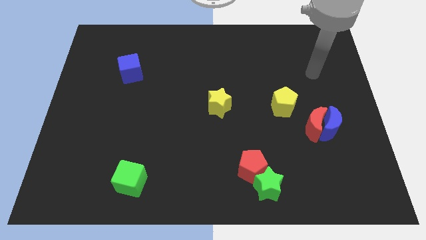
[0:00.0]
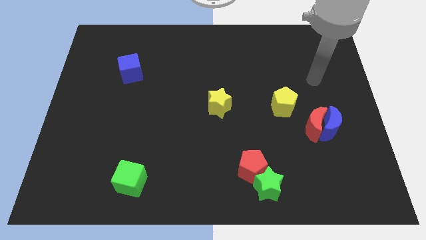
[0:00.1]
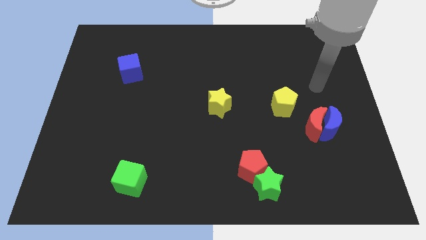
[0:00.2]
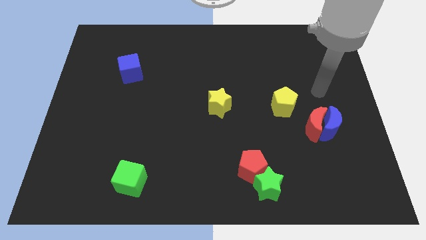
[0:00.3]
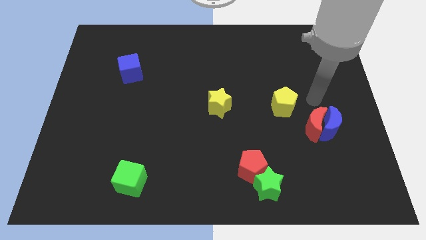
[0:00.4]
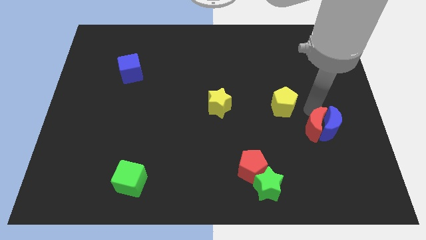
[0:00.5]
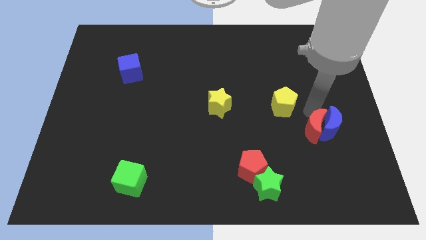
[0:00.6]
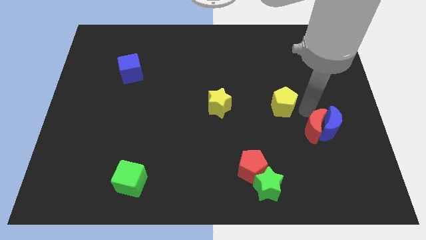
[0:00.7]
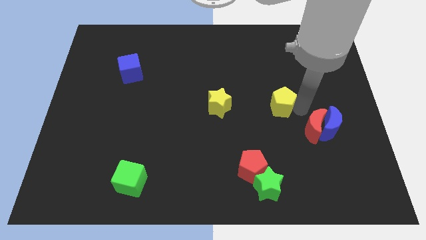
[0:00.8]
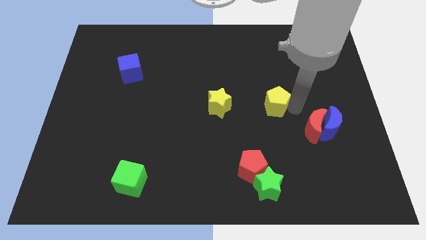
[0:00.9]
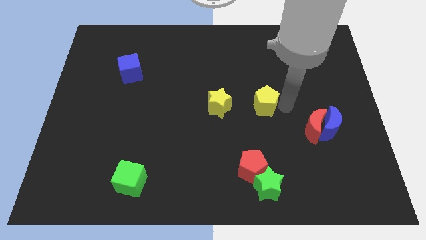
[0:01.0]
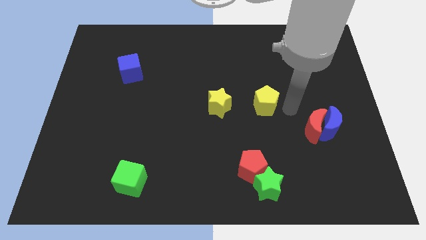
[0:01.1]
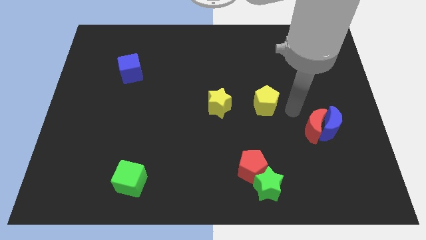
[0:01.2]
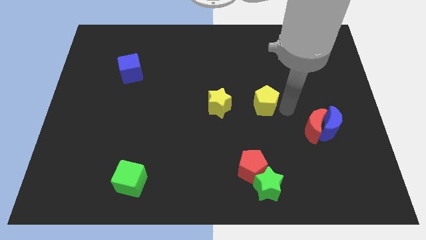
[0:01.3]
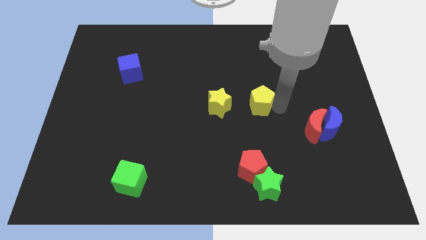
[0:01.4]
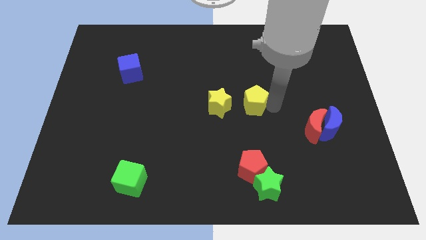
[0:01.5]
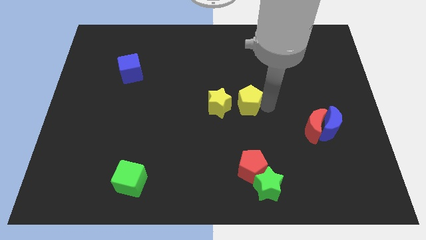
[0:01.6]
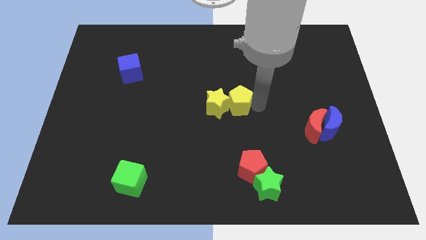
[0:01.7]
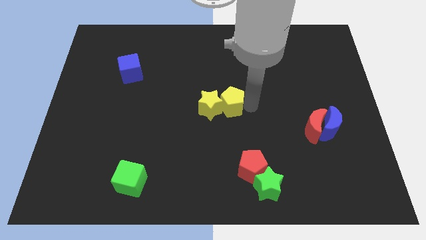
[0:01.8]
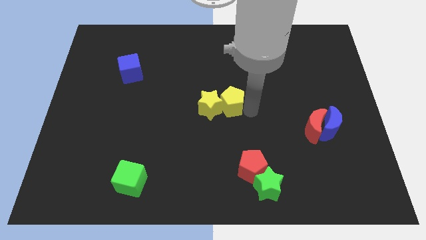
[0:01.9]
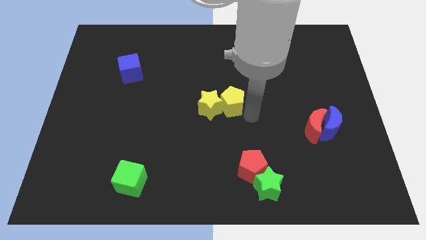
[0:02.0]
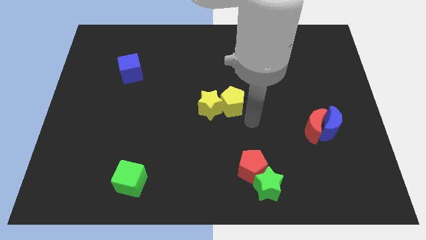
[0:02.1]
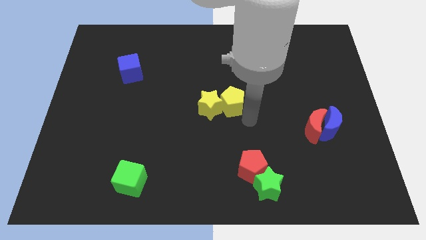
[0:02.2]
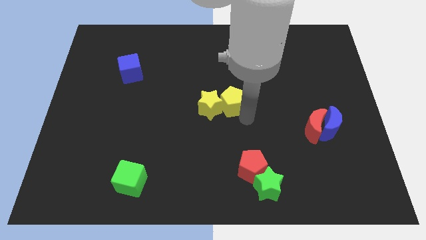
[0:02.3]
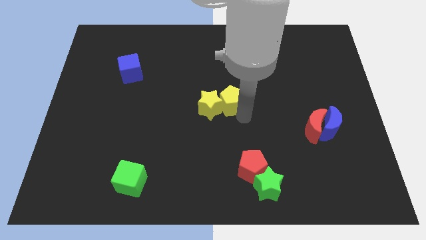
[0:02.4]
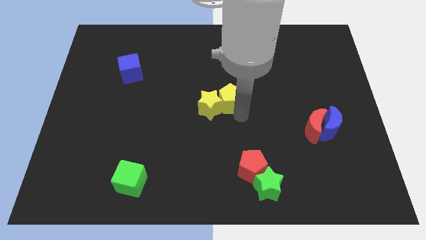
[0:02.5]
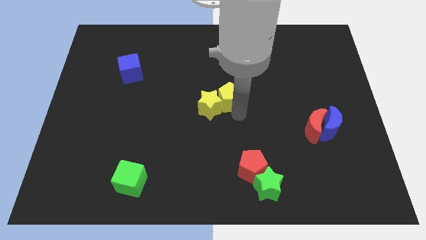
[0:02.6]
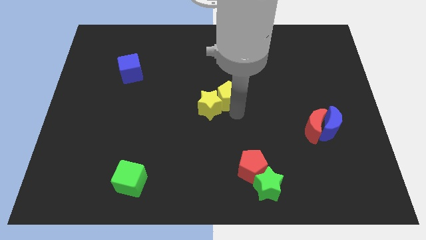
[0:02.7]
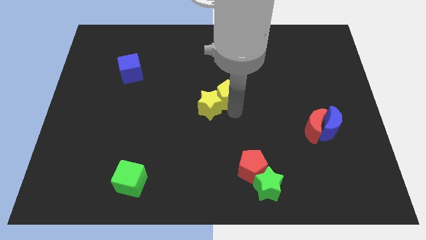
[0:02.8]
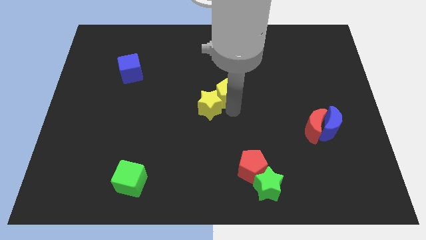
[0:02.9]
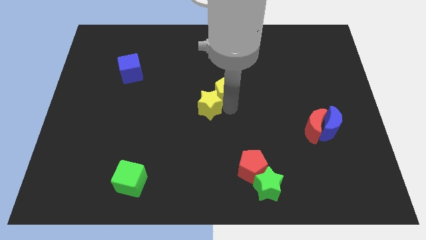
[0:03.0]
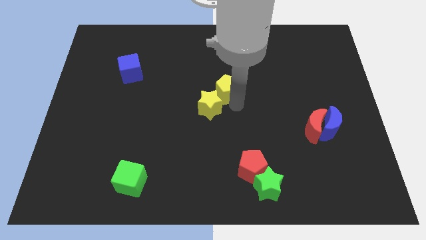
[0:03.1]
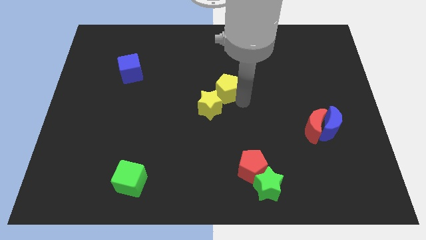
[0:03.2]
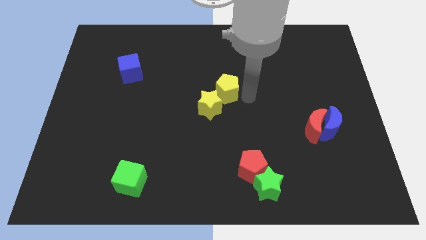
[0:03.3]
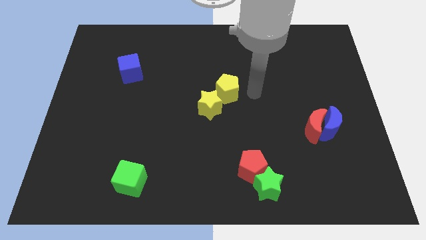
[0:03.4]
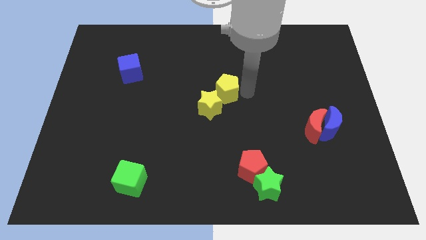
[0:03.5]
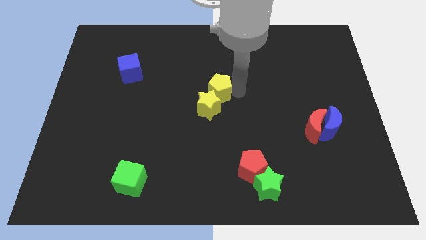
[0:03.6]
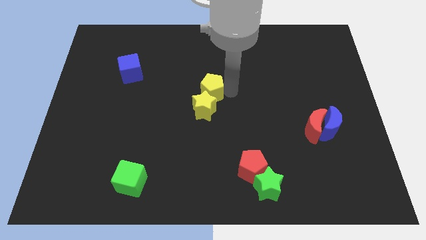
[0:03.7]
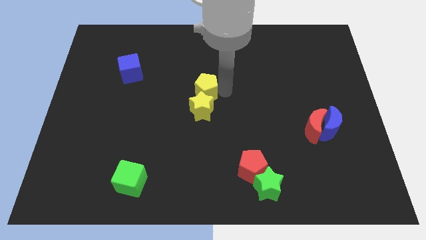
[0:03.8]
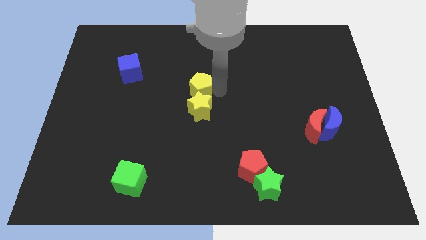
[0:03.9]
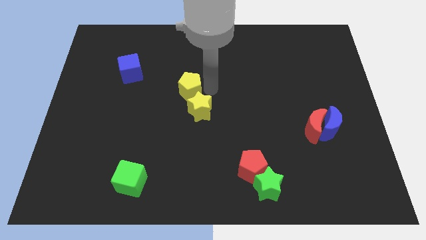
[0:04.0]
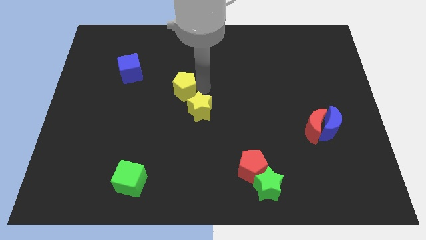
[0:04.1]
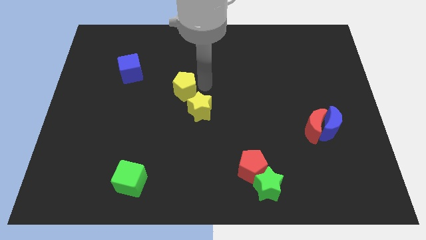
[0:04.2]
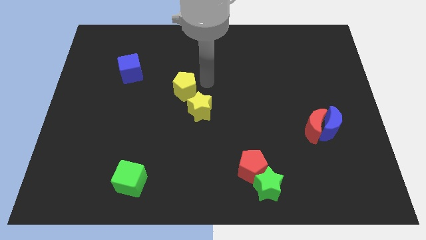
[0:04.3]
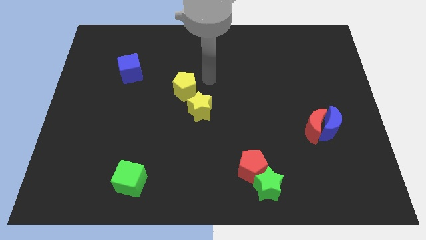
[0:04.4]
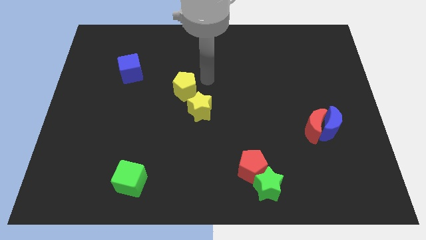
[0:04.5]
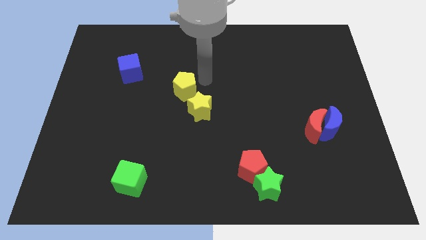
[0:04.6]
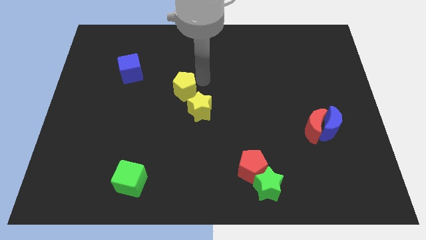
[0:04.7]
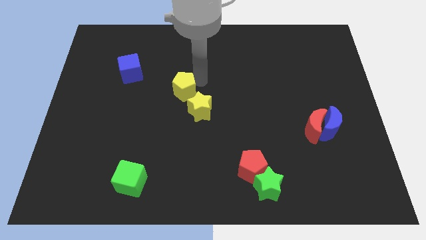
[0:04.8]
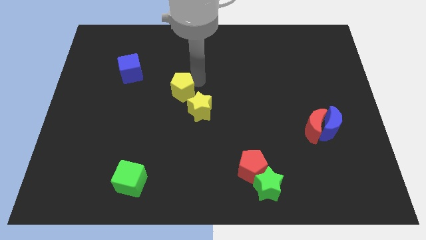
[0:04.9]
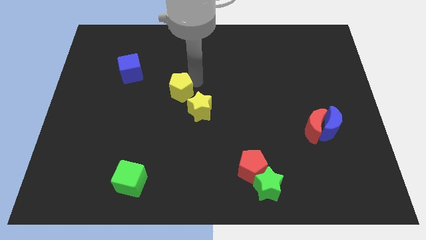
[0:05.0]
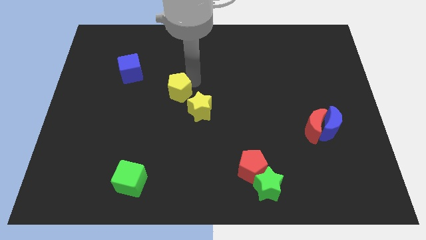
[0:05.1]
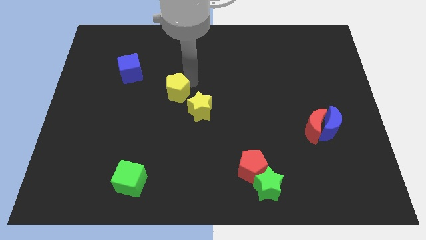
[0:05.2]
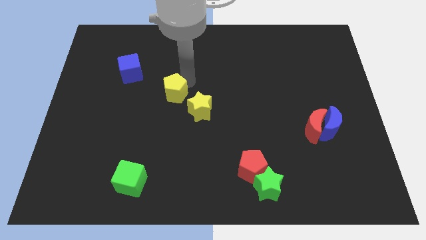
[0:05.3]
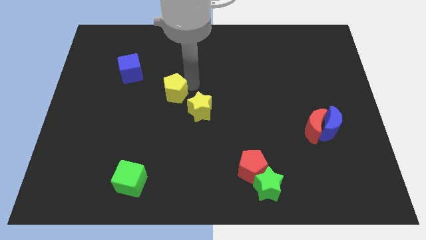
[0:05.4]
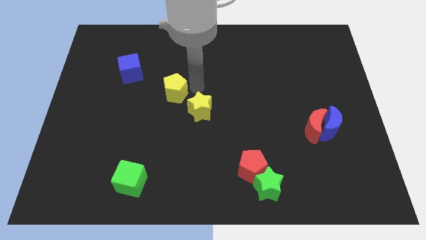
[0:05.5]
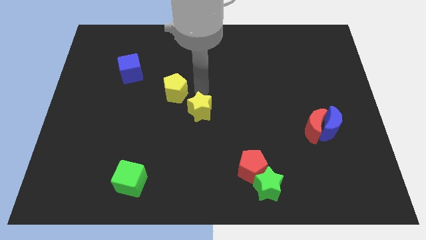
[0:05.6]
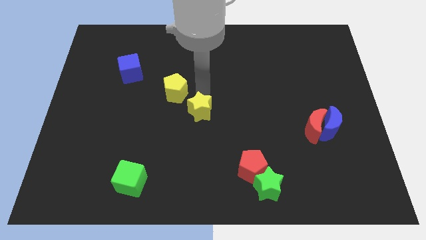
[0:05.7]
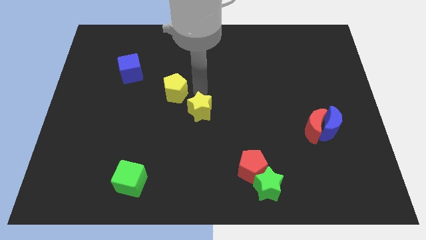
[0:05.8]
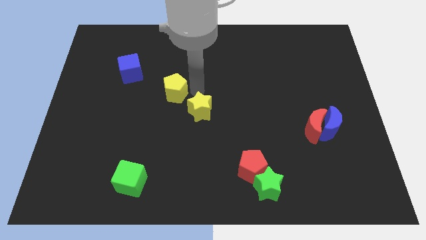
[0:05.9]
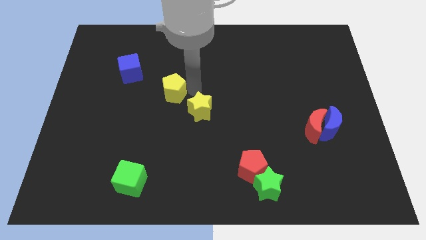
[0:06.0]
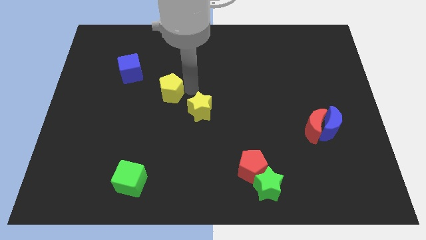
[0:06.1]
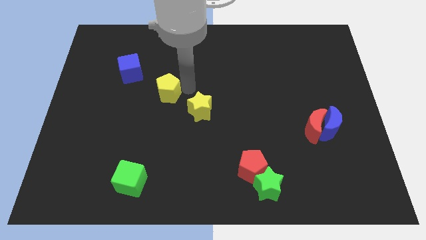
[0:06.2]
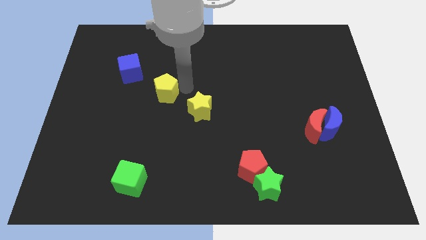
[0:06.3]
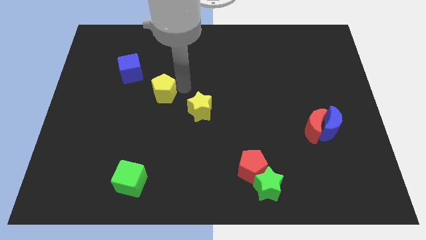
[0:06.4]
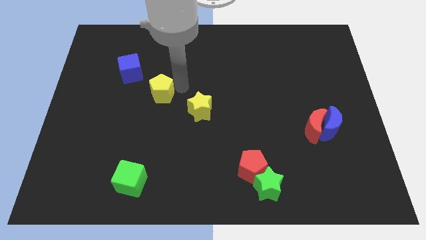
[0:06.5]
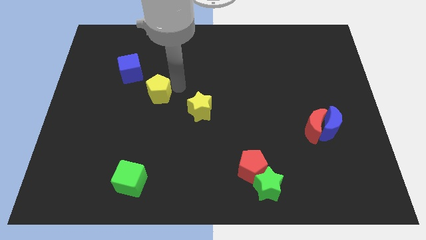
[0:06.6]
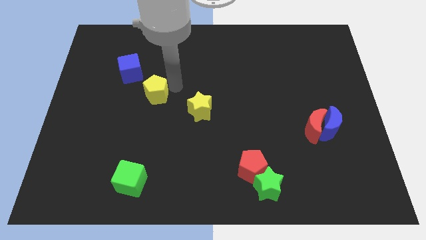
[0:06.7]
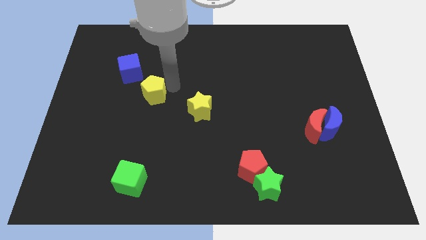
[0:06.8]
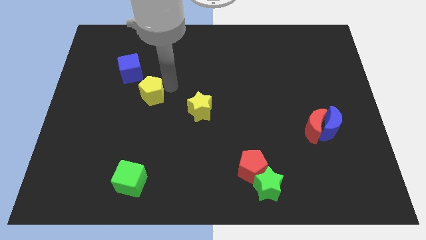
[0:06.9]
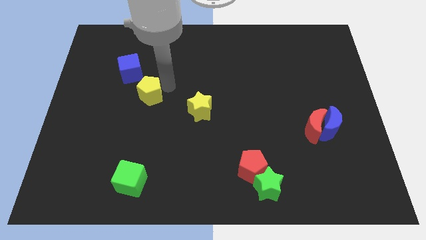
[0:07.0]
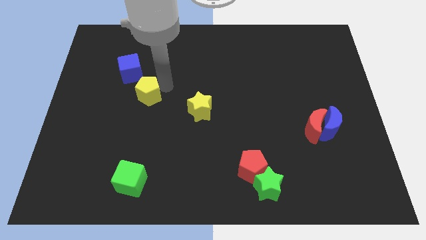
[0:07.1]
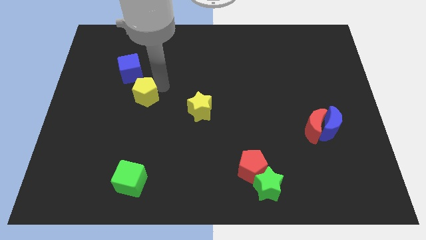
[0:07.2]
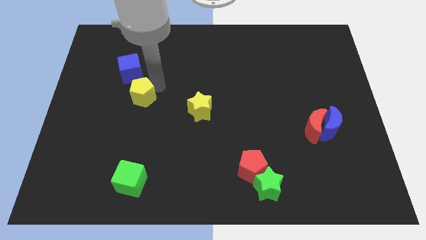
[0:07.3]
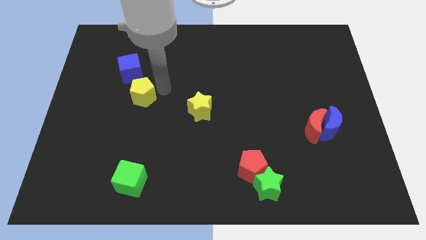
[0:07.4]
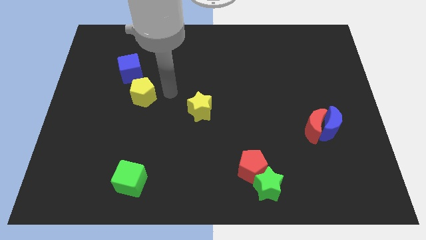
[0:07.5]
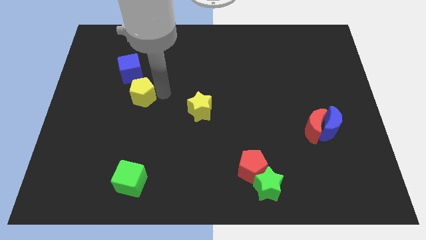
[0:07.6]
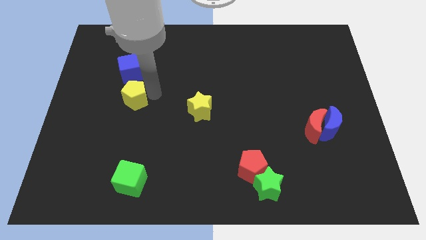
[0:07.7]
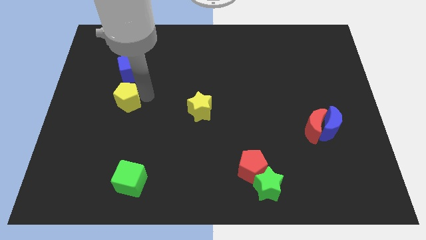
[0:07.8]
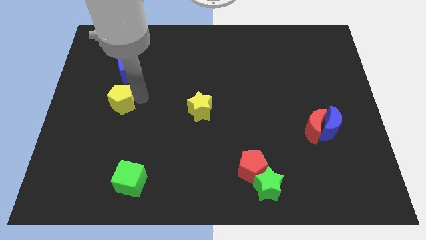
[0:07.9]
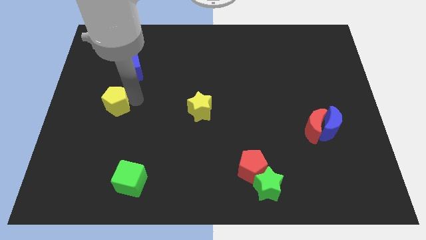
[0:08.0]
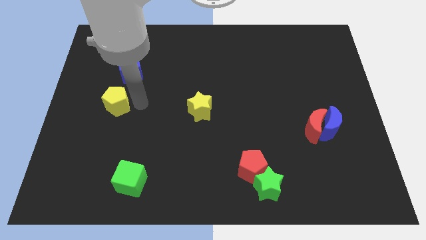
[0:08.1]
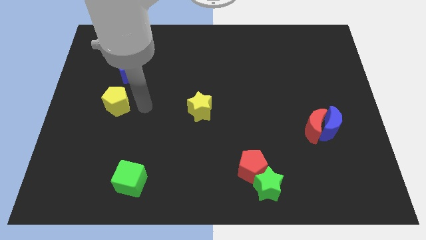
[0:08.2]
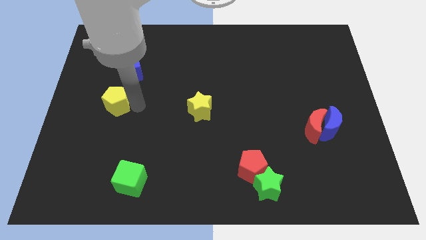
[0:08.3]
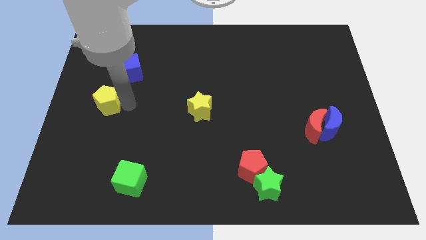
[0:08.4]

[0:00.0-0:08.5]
put the yellow pentagon to the left side of the board
